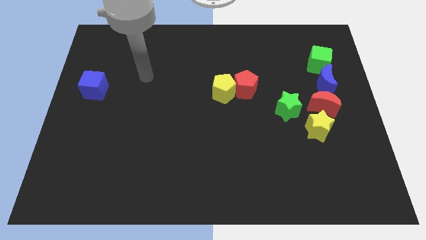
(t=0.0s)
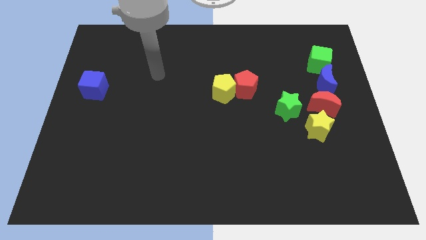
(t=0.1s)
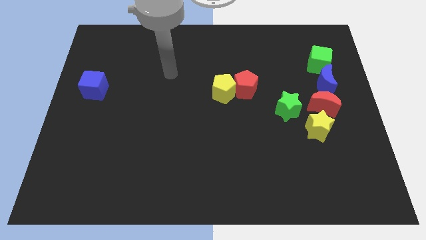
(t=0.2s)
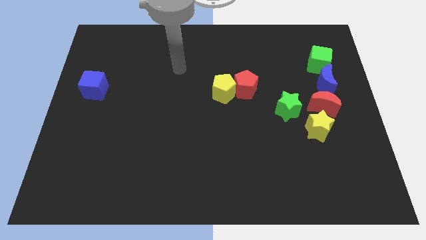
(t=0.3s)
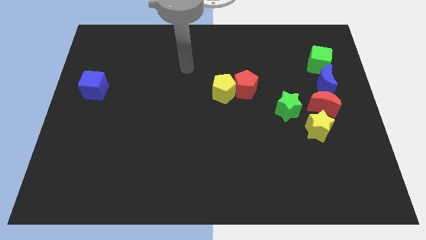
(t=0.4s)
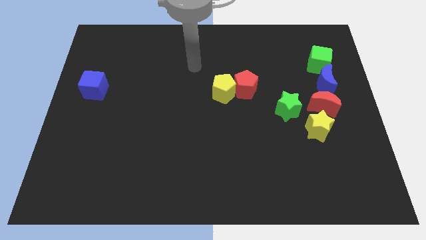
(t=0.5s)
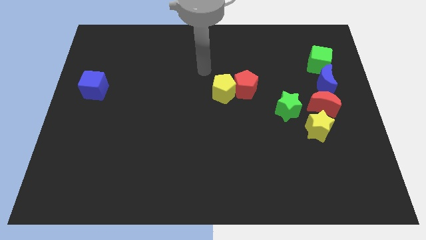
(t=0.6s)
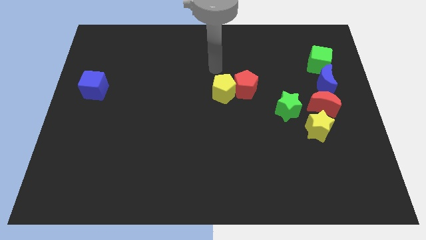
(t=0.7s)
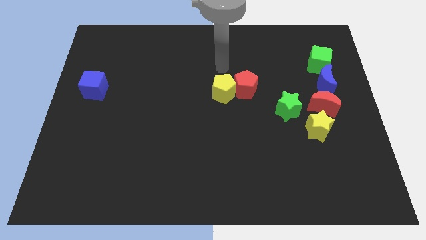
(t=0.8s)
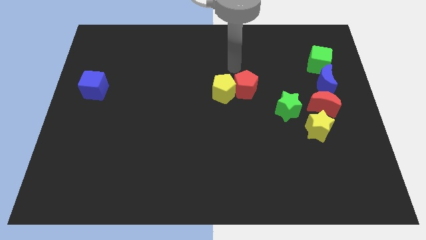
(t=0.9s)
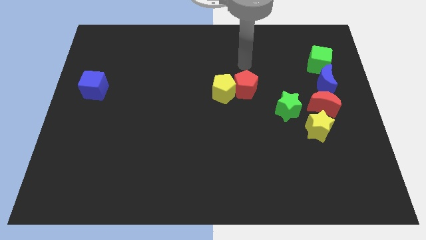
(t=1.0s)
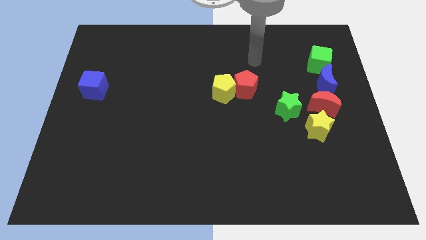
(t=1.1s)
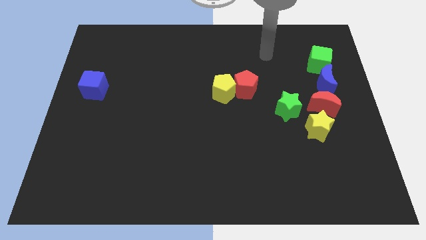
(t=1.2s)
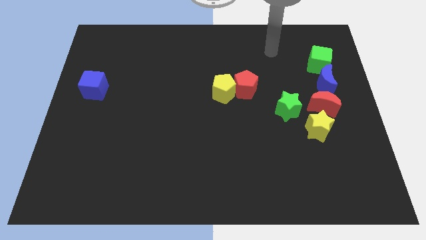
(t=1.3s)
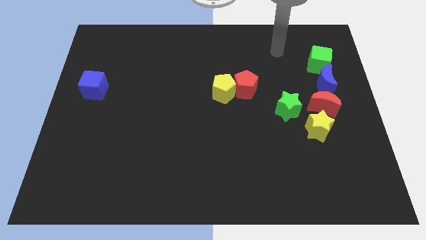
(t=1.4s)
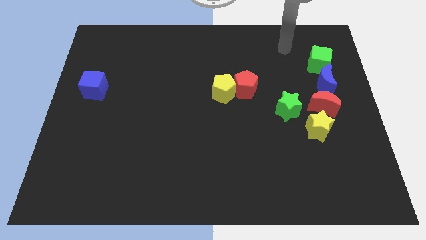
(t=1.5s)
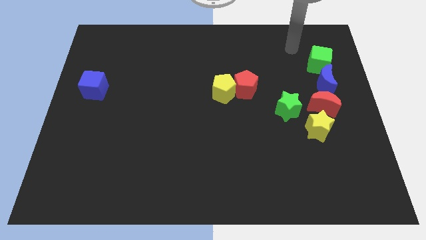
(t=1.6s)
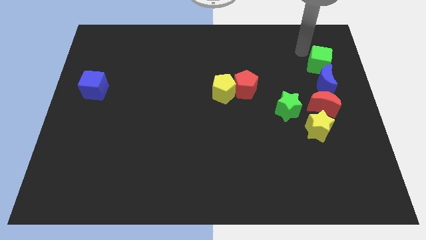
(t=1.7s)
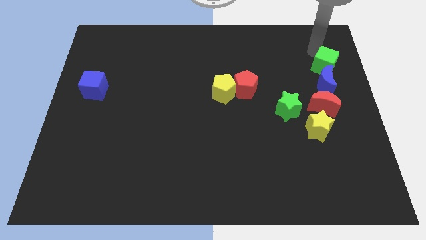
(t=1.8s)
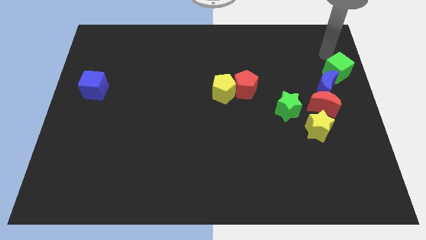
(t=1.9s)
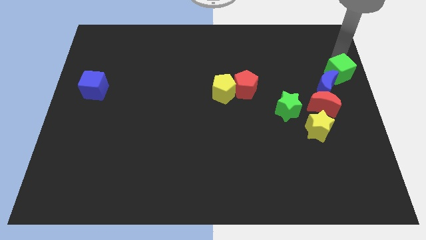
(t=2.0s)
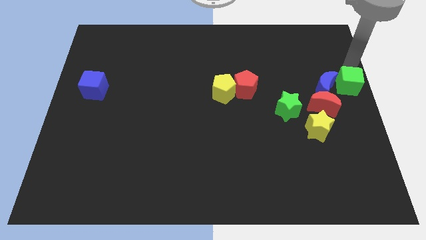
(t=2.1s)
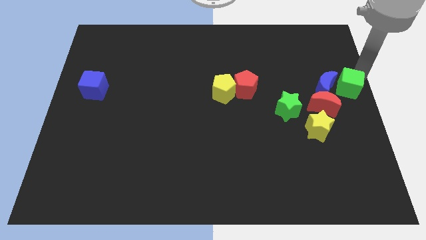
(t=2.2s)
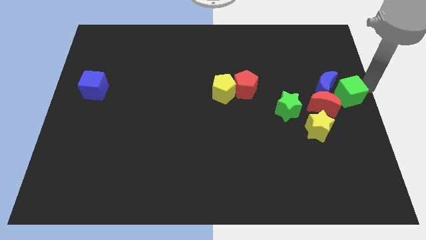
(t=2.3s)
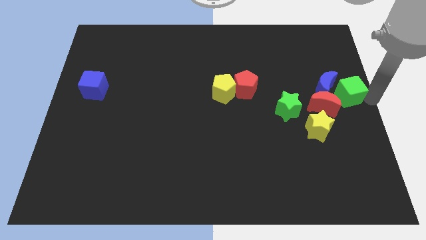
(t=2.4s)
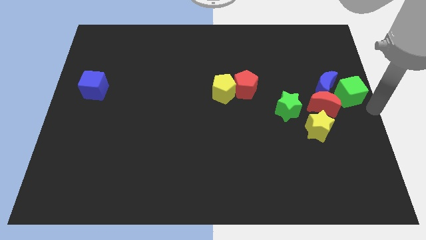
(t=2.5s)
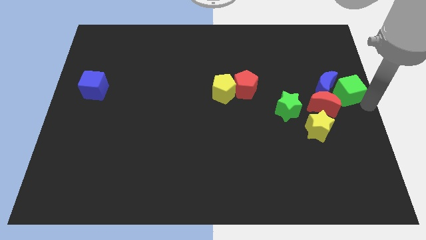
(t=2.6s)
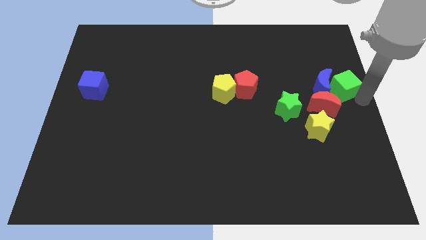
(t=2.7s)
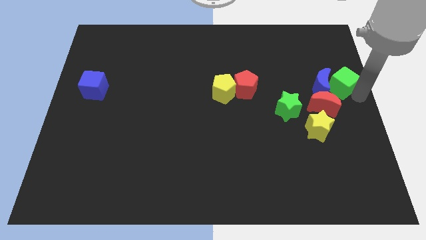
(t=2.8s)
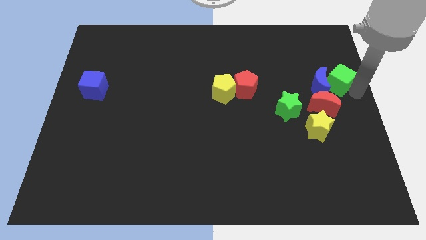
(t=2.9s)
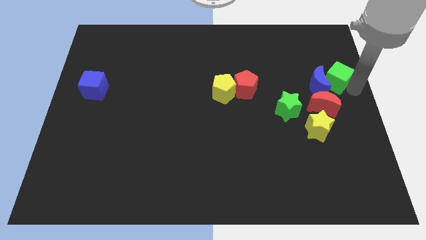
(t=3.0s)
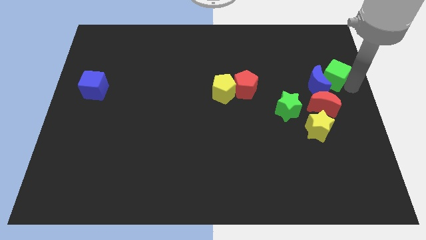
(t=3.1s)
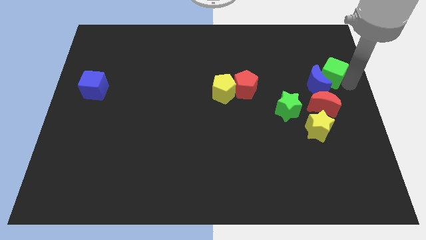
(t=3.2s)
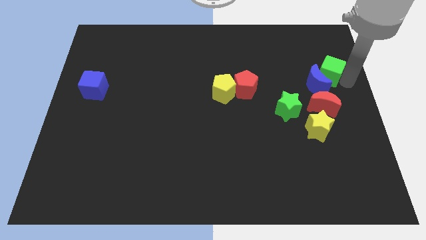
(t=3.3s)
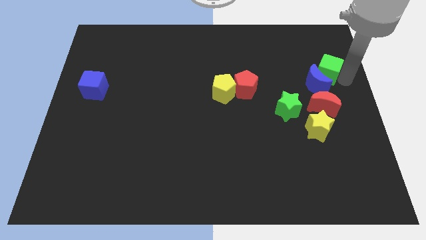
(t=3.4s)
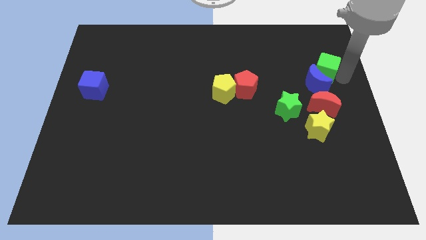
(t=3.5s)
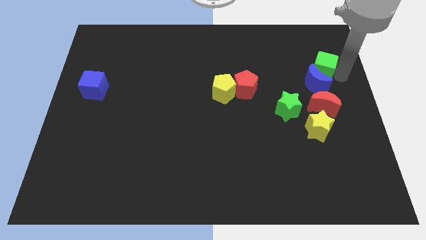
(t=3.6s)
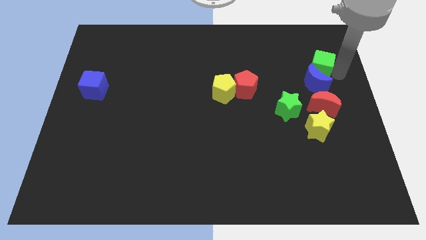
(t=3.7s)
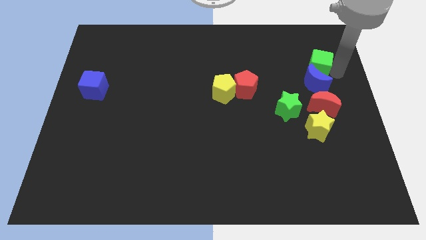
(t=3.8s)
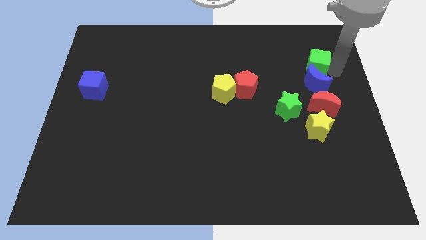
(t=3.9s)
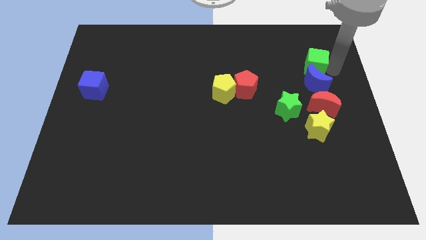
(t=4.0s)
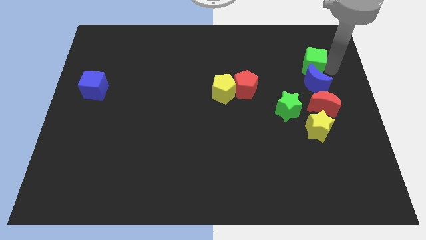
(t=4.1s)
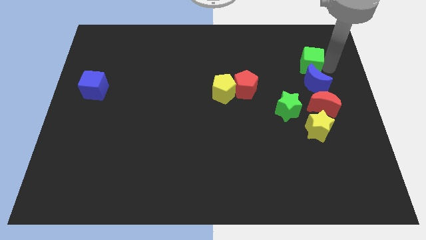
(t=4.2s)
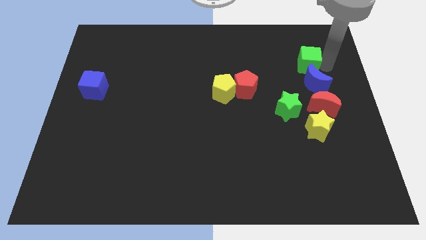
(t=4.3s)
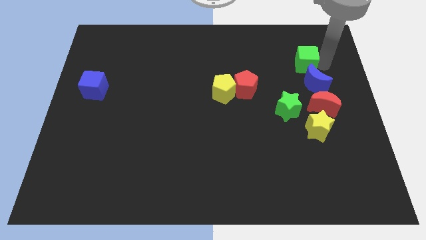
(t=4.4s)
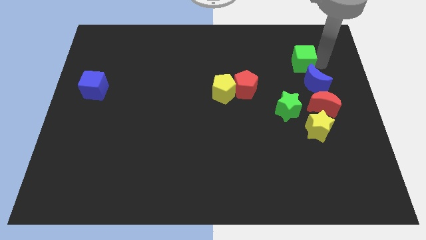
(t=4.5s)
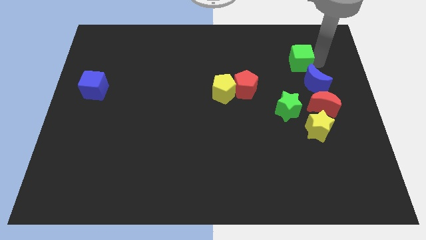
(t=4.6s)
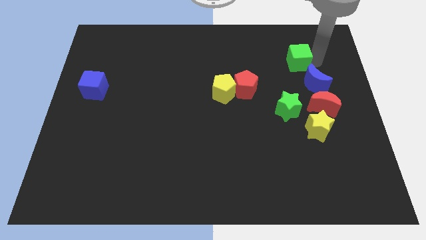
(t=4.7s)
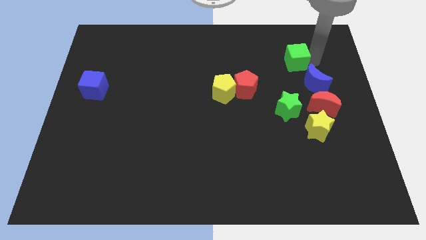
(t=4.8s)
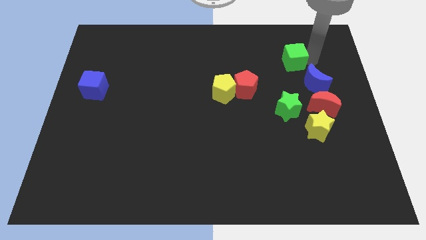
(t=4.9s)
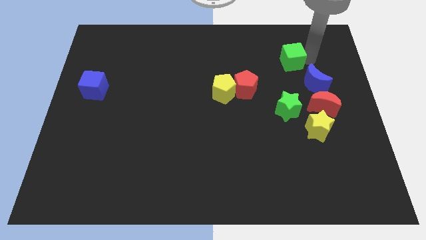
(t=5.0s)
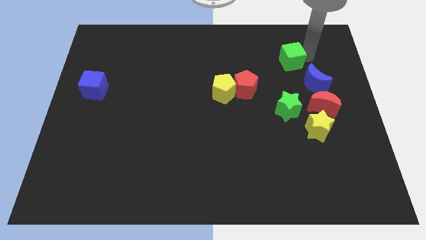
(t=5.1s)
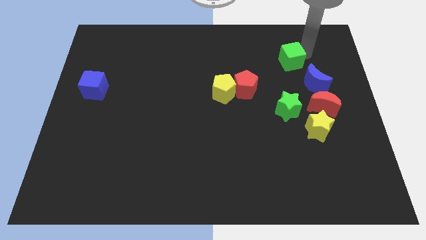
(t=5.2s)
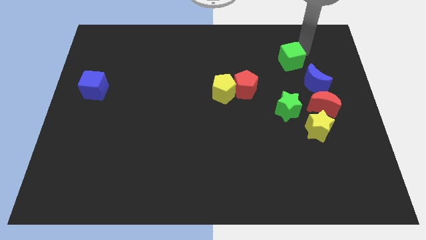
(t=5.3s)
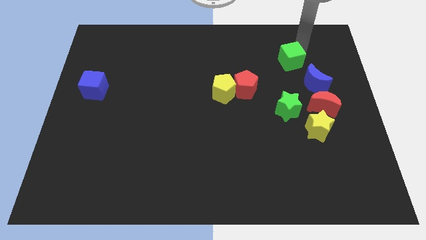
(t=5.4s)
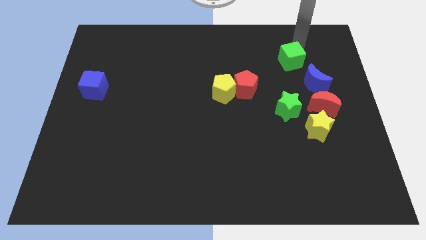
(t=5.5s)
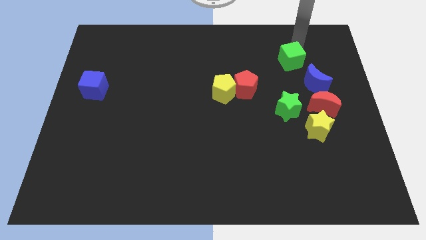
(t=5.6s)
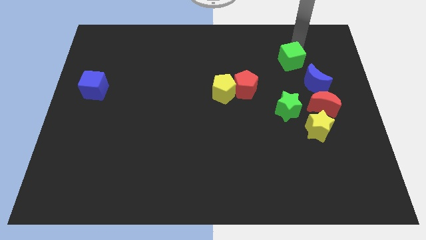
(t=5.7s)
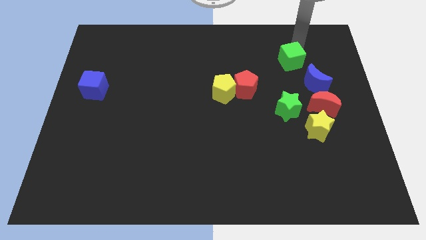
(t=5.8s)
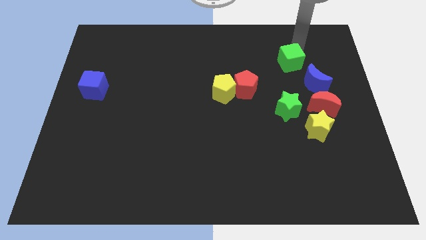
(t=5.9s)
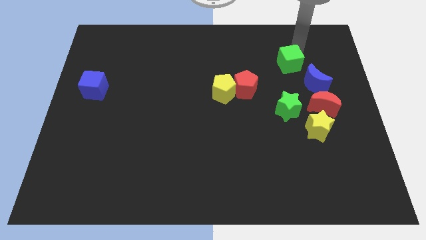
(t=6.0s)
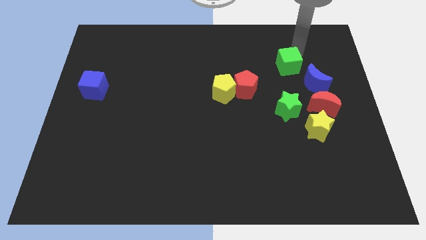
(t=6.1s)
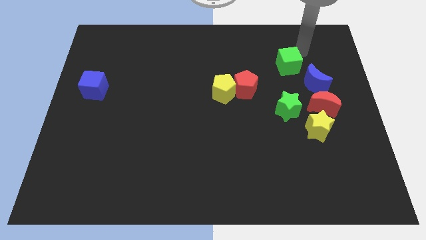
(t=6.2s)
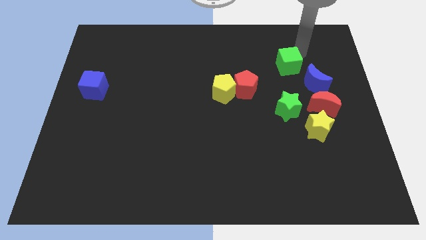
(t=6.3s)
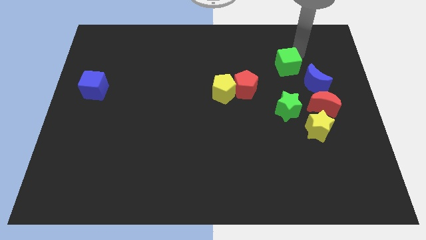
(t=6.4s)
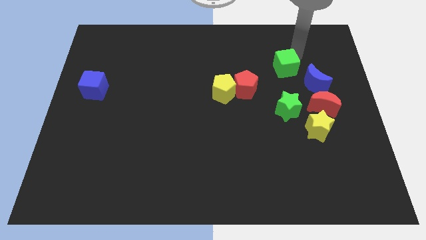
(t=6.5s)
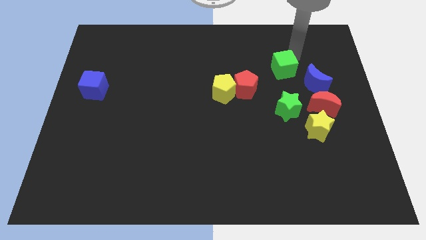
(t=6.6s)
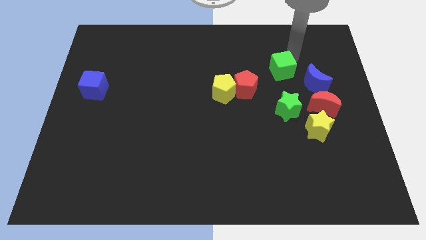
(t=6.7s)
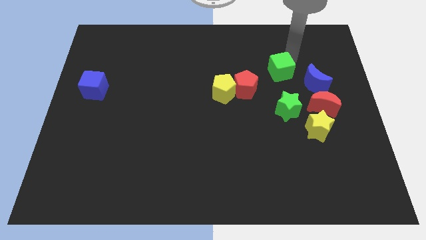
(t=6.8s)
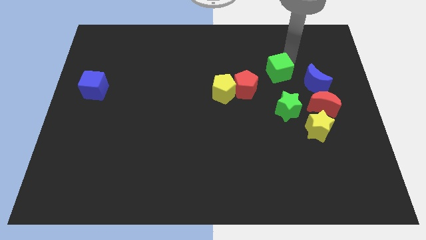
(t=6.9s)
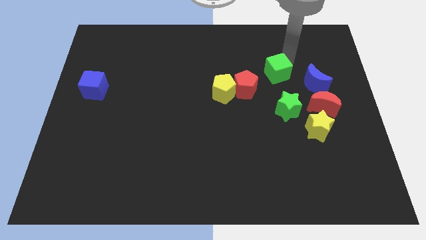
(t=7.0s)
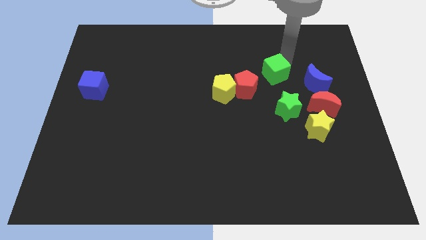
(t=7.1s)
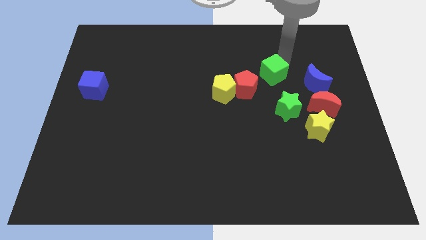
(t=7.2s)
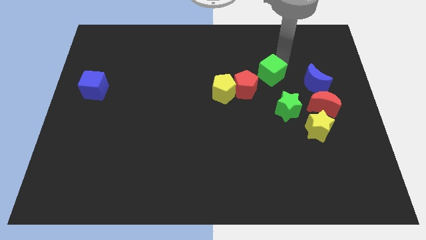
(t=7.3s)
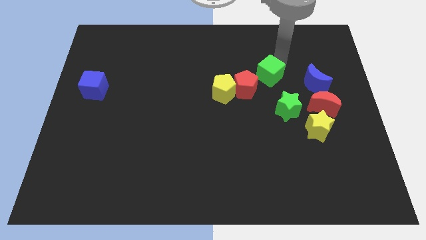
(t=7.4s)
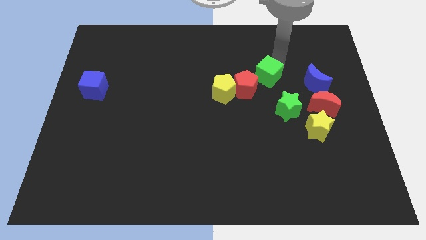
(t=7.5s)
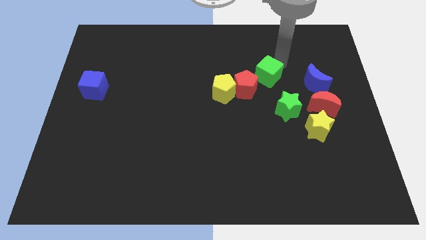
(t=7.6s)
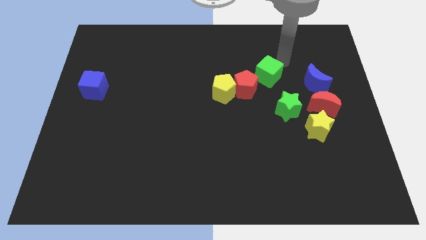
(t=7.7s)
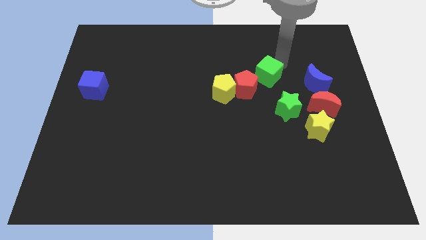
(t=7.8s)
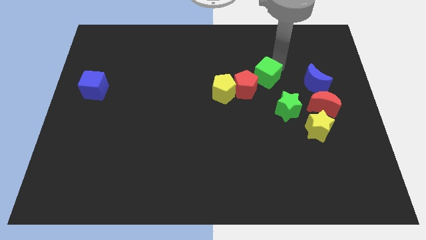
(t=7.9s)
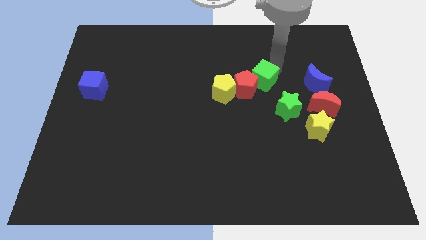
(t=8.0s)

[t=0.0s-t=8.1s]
move the green cube to the red pentagon
